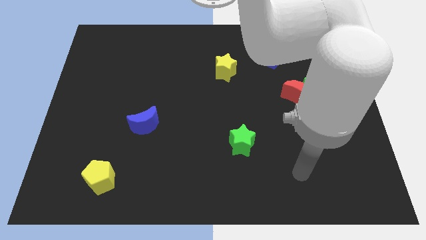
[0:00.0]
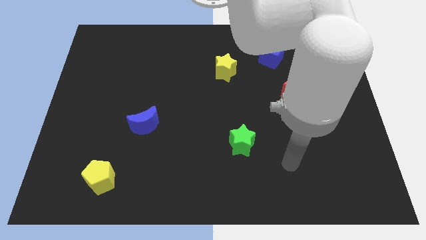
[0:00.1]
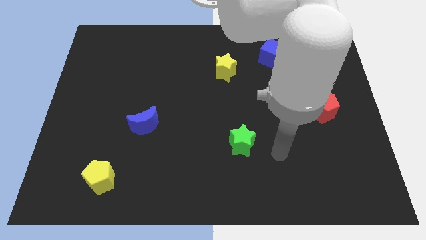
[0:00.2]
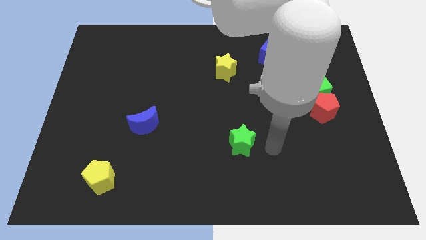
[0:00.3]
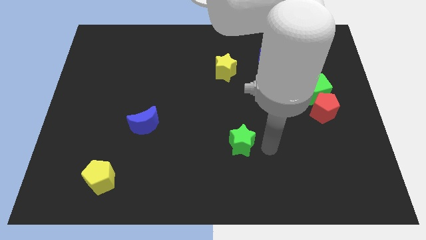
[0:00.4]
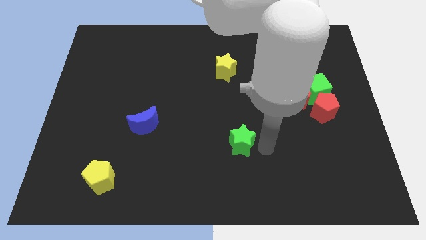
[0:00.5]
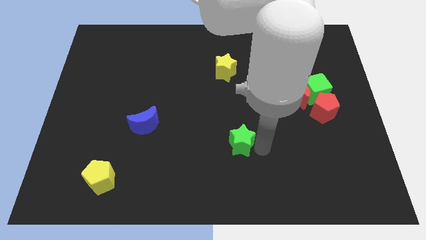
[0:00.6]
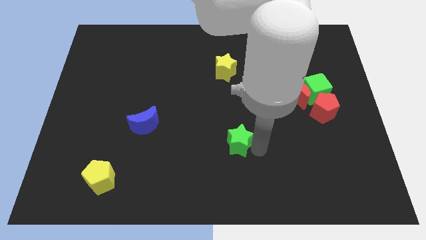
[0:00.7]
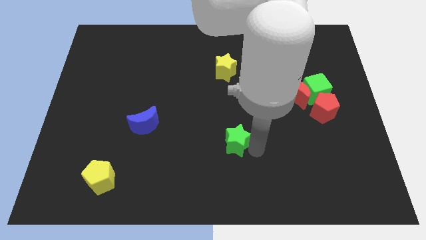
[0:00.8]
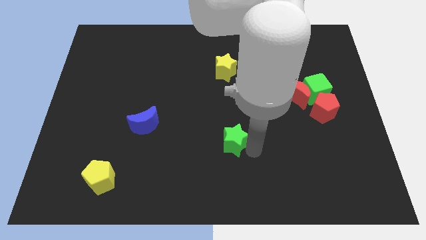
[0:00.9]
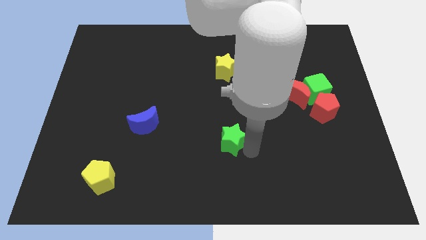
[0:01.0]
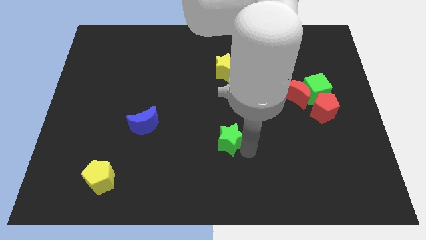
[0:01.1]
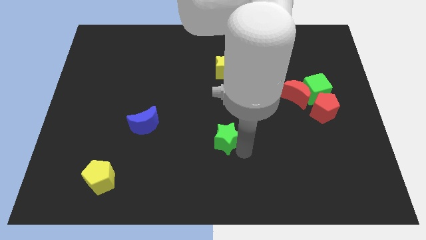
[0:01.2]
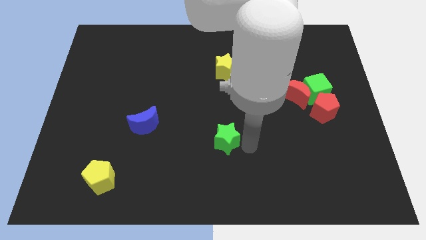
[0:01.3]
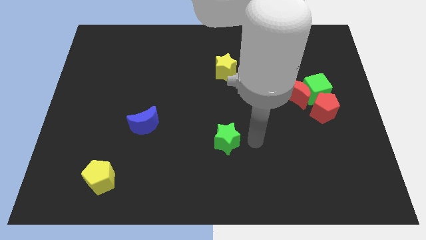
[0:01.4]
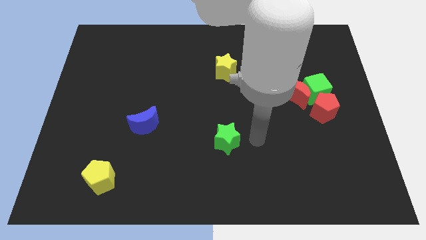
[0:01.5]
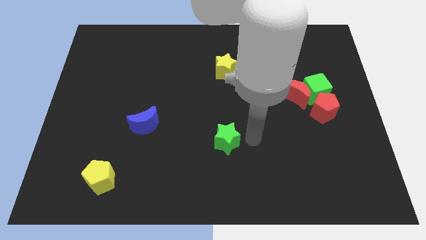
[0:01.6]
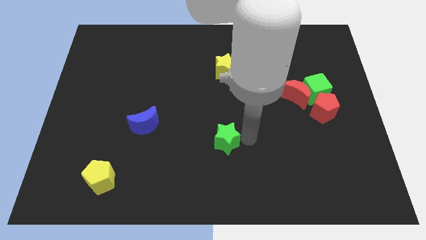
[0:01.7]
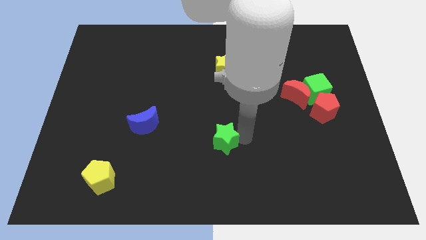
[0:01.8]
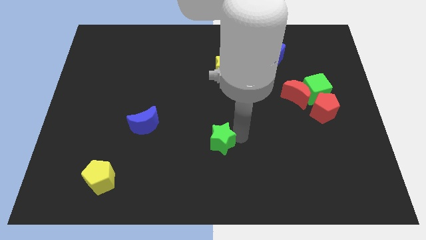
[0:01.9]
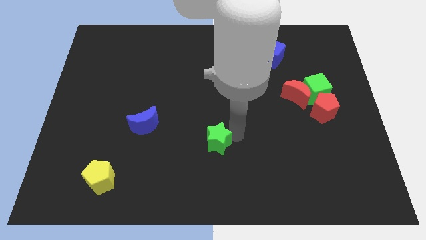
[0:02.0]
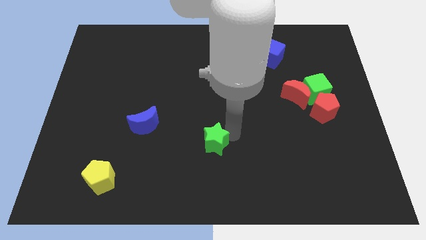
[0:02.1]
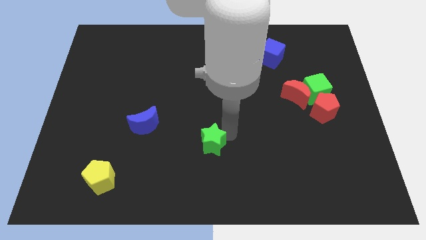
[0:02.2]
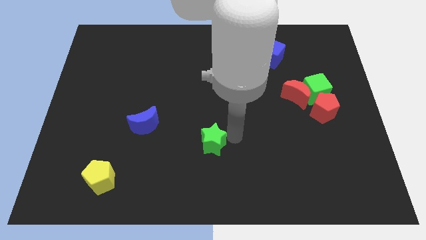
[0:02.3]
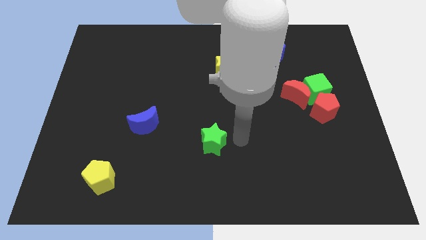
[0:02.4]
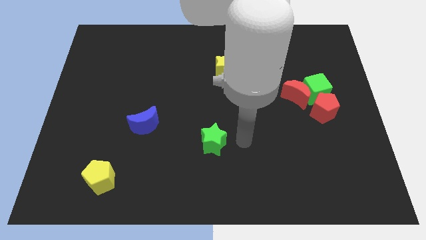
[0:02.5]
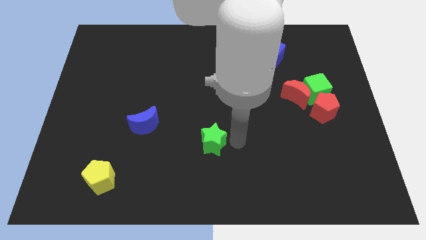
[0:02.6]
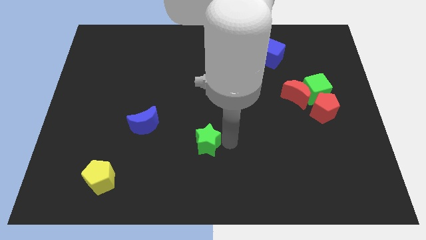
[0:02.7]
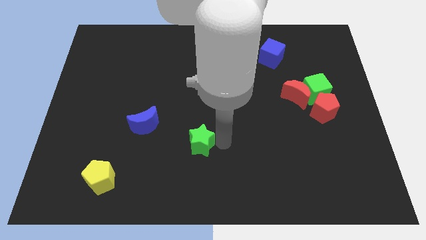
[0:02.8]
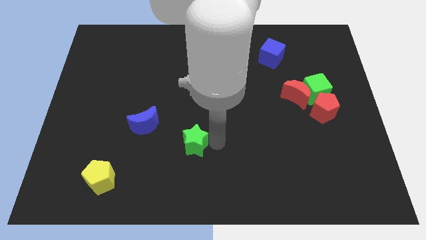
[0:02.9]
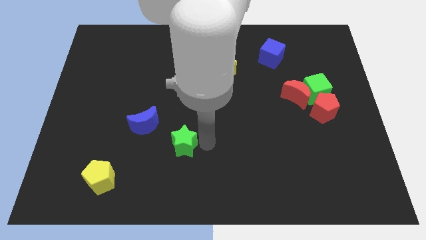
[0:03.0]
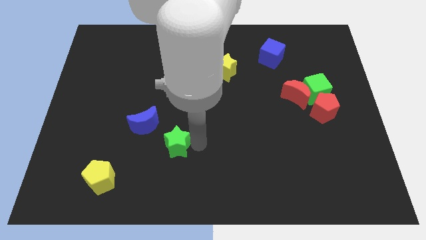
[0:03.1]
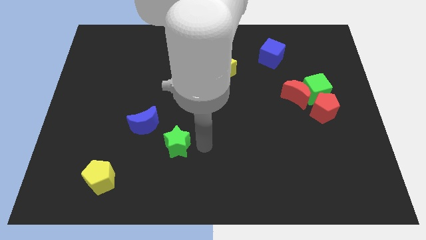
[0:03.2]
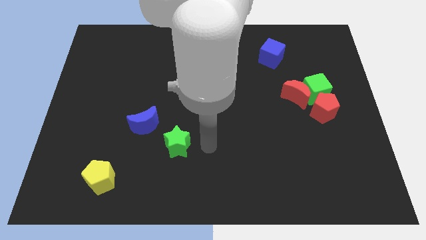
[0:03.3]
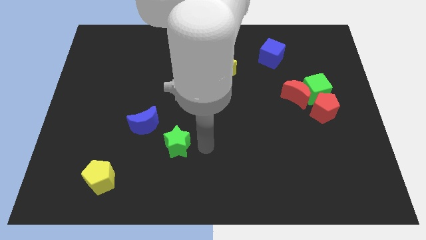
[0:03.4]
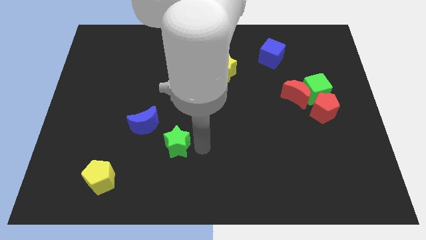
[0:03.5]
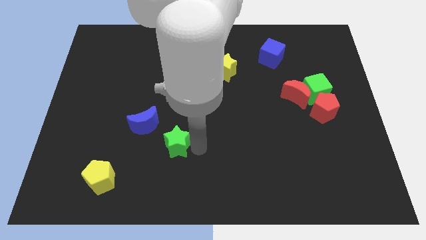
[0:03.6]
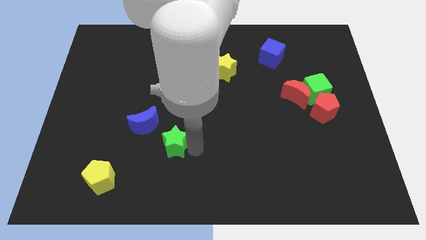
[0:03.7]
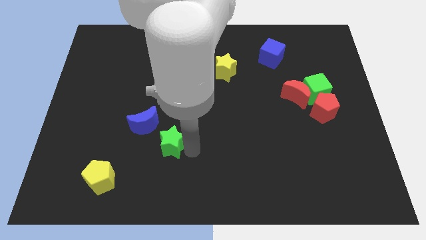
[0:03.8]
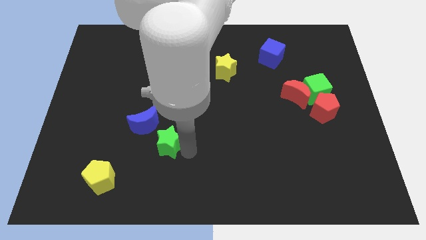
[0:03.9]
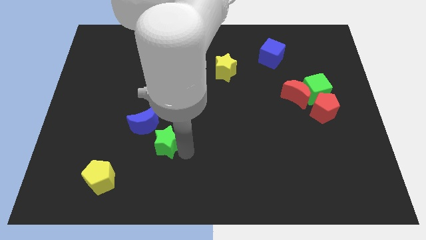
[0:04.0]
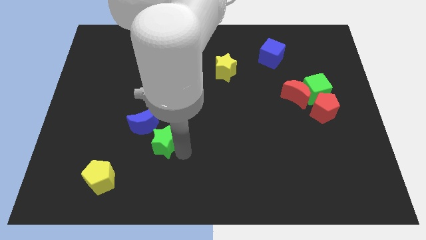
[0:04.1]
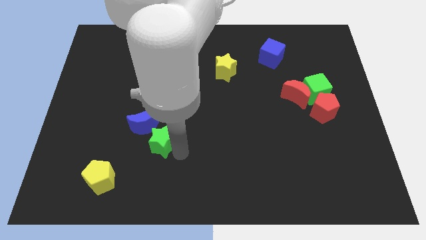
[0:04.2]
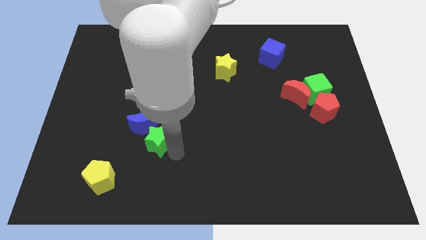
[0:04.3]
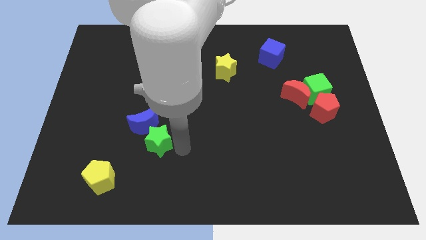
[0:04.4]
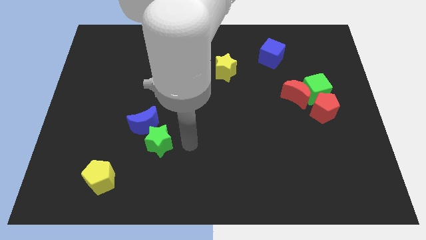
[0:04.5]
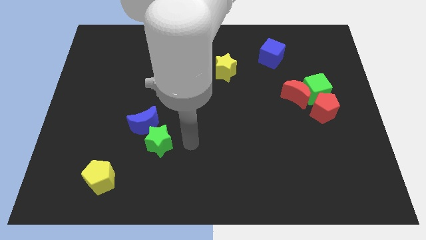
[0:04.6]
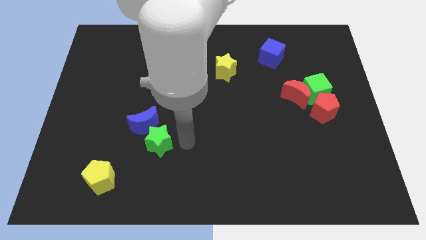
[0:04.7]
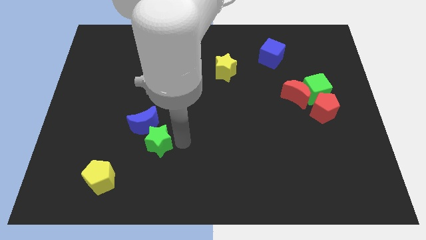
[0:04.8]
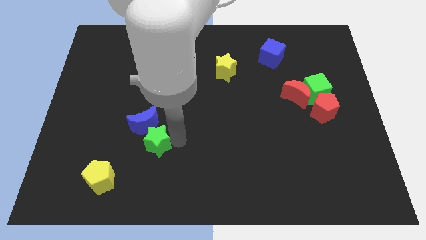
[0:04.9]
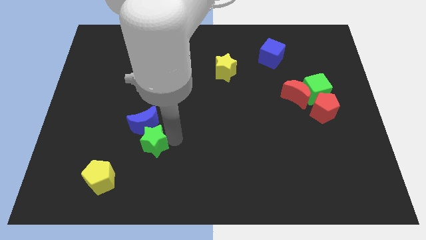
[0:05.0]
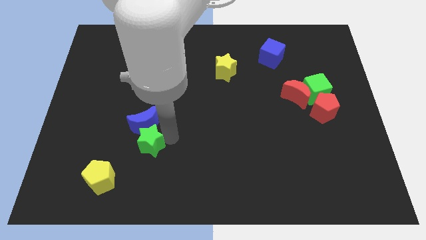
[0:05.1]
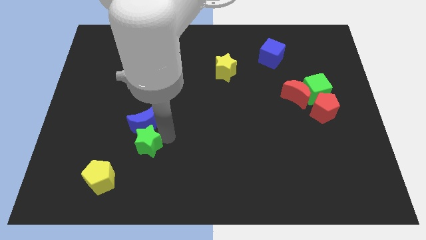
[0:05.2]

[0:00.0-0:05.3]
move the green star to the bottom left side of the blue moon

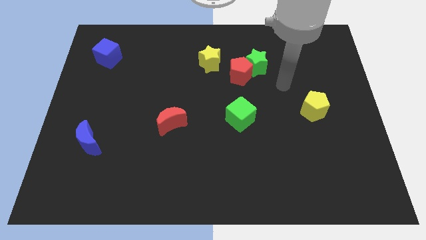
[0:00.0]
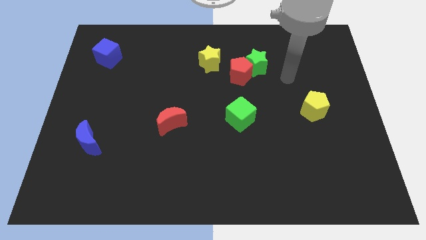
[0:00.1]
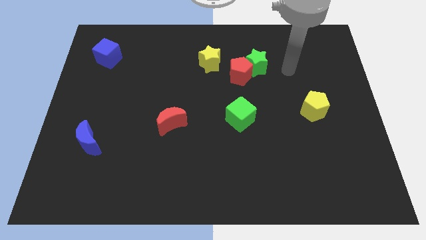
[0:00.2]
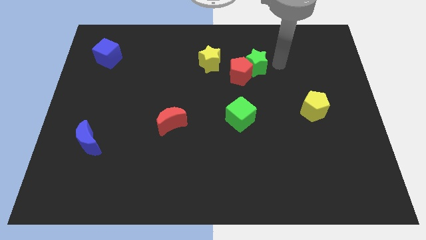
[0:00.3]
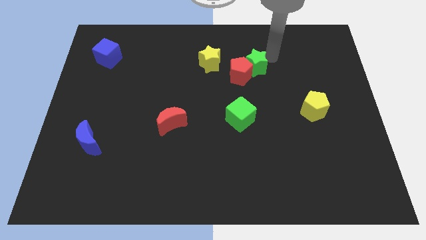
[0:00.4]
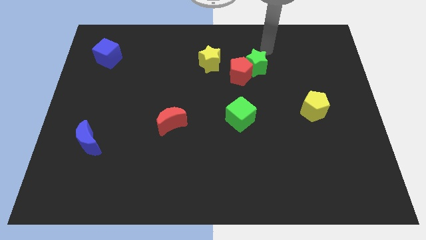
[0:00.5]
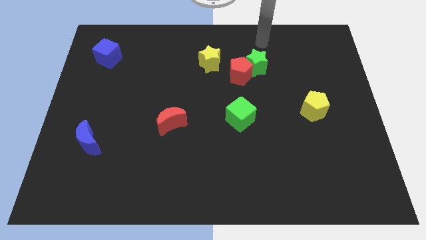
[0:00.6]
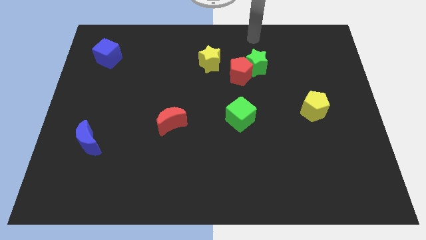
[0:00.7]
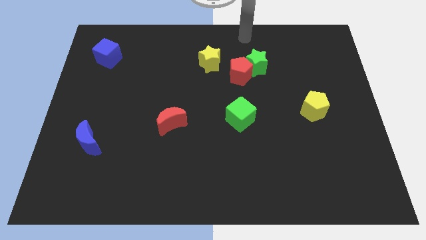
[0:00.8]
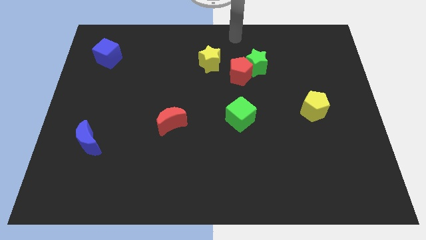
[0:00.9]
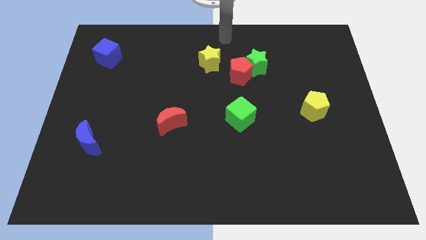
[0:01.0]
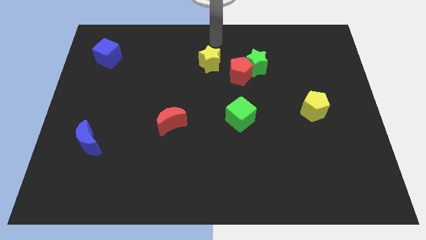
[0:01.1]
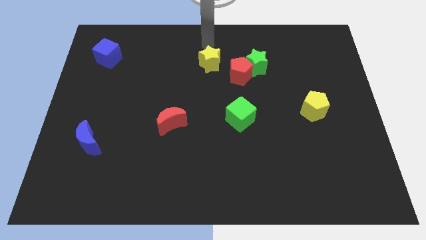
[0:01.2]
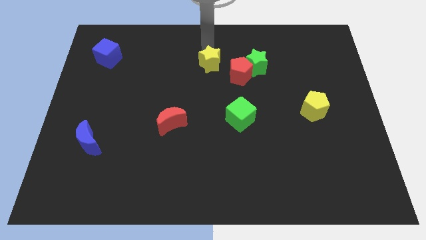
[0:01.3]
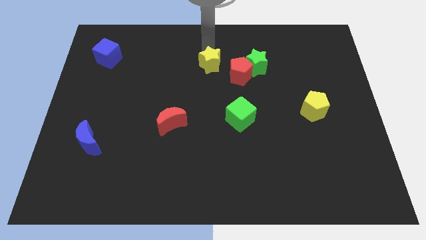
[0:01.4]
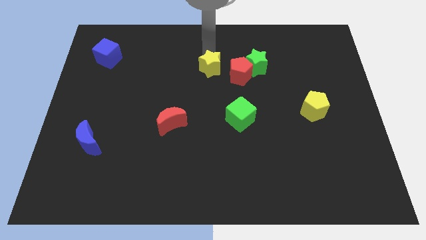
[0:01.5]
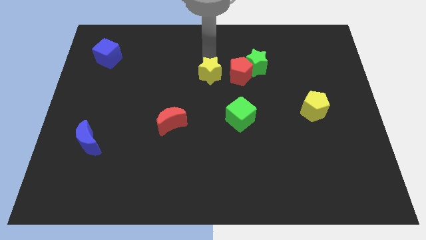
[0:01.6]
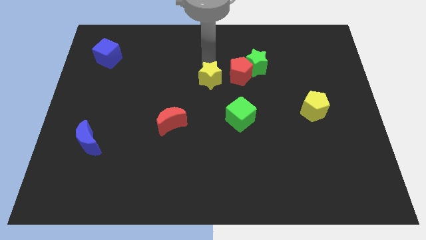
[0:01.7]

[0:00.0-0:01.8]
push the yellow star to the bottom left side of the red pentagon
